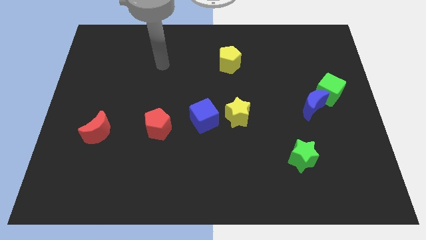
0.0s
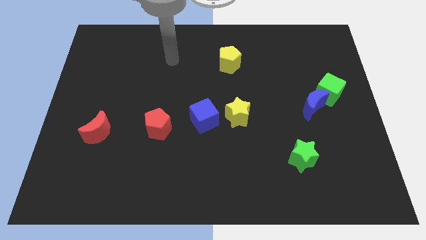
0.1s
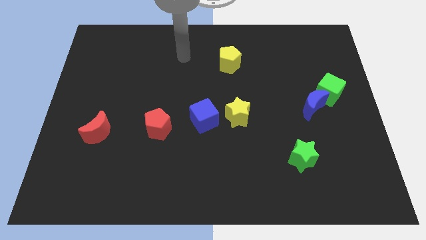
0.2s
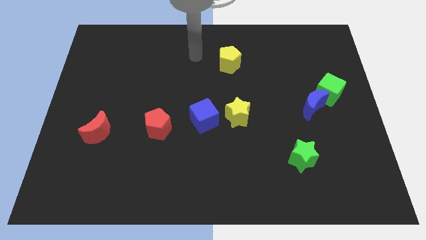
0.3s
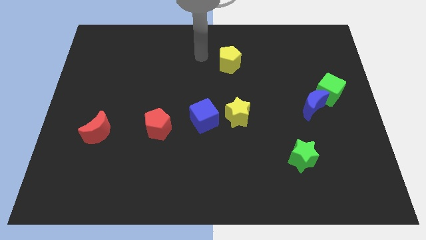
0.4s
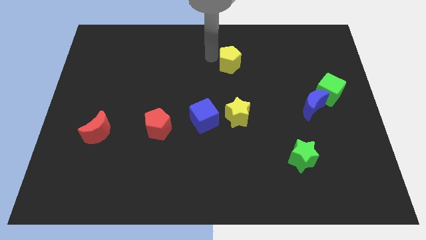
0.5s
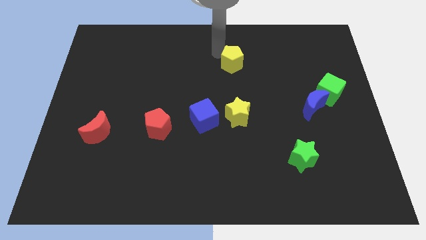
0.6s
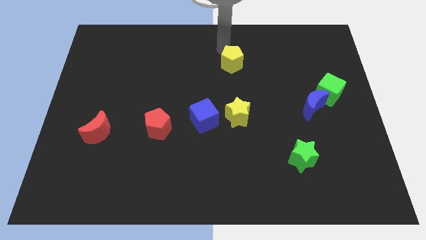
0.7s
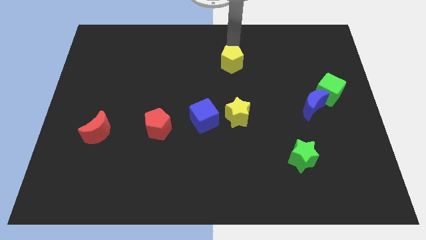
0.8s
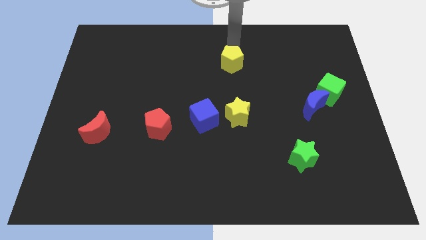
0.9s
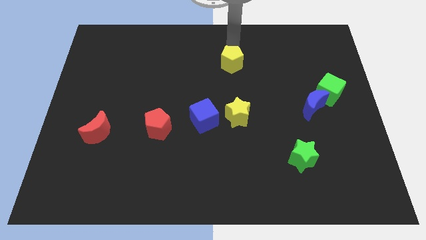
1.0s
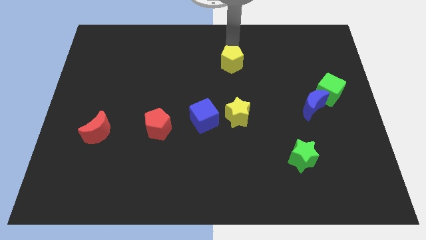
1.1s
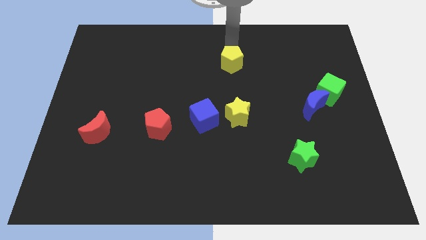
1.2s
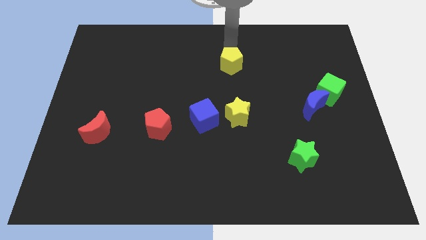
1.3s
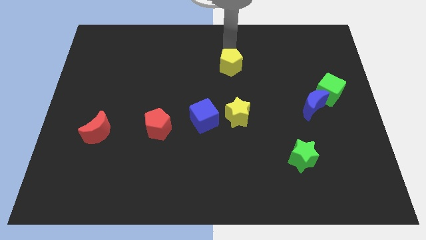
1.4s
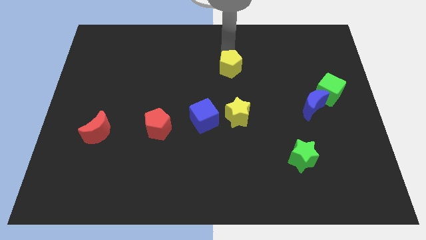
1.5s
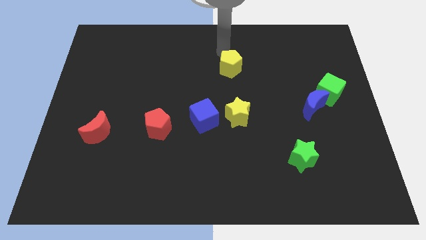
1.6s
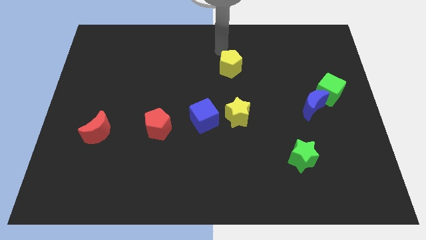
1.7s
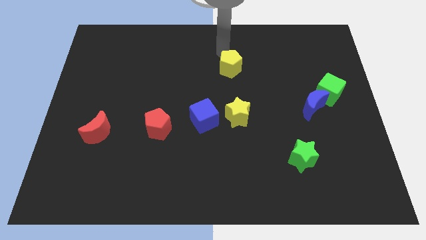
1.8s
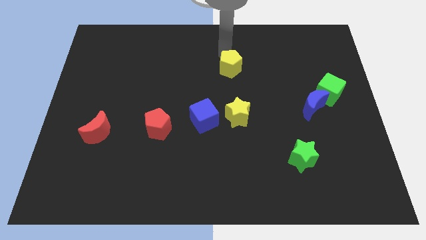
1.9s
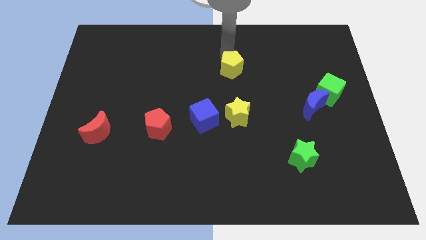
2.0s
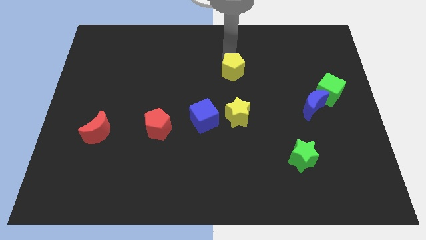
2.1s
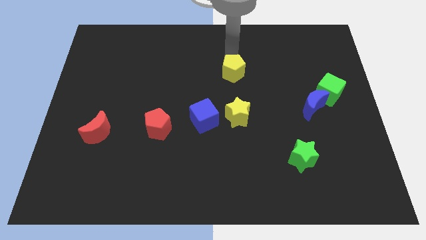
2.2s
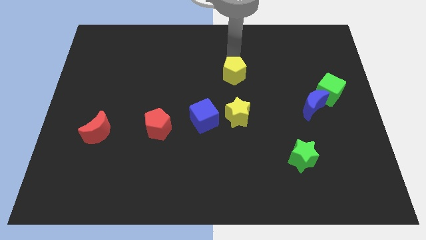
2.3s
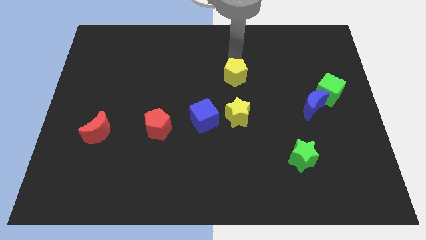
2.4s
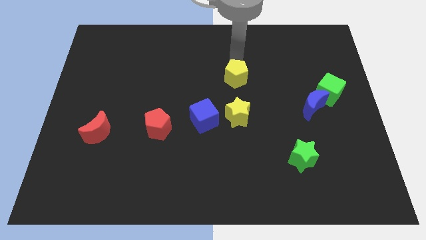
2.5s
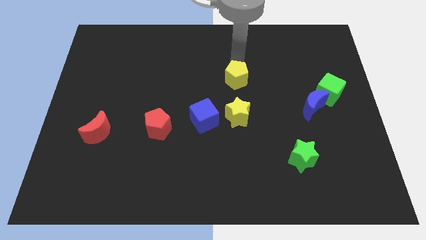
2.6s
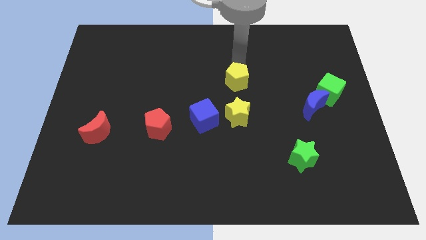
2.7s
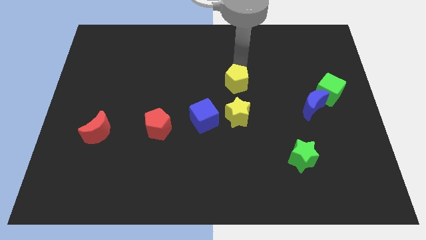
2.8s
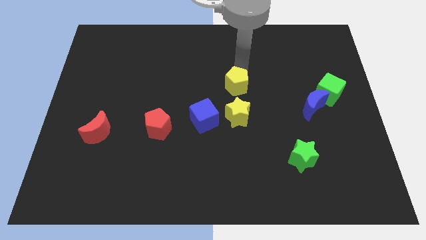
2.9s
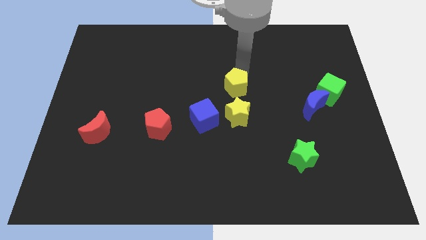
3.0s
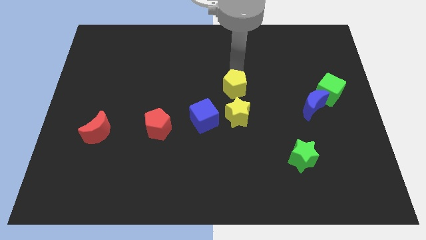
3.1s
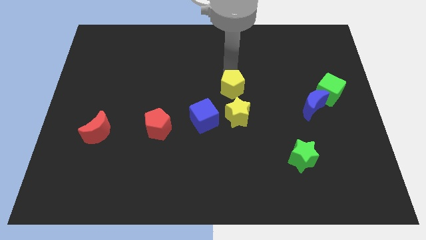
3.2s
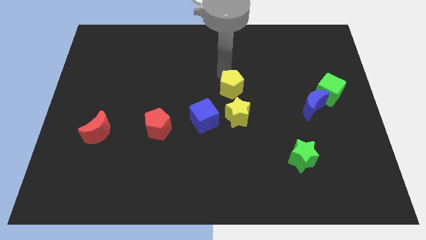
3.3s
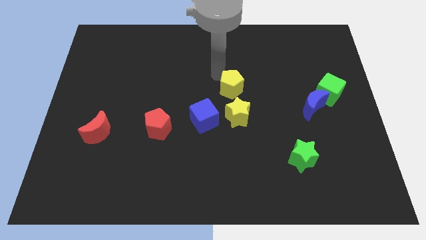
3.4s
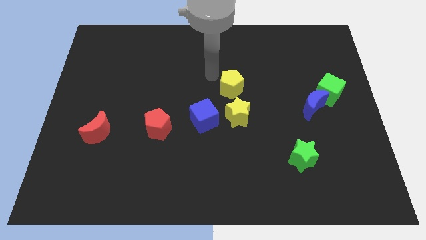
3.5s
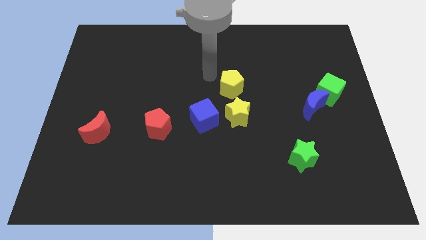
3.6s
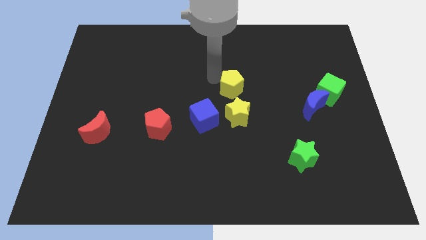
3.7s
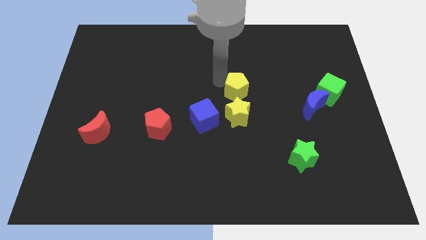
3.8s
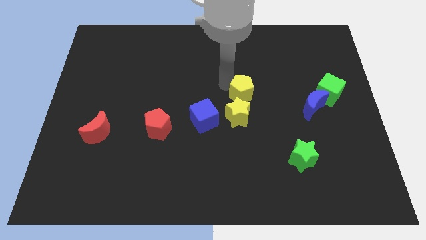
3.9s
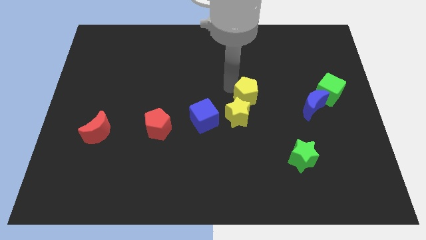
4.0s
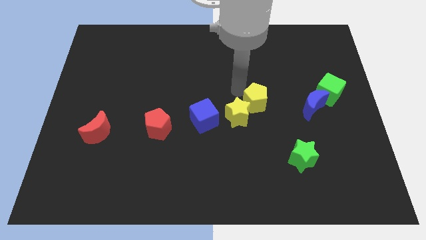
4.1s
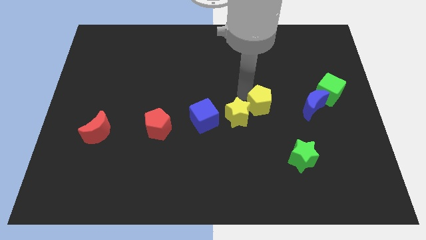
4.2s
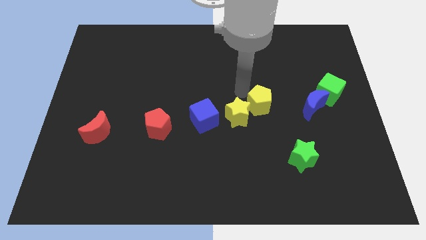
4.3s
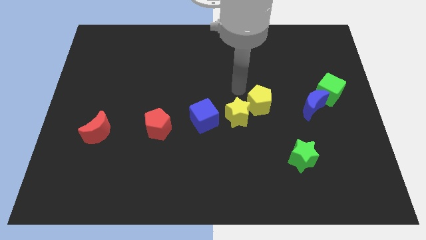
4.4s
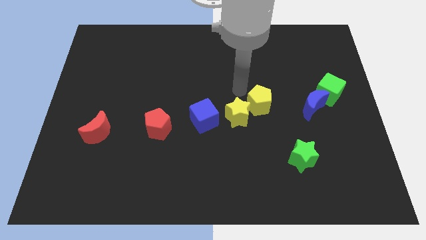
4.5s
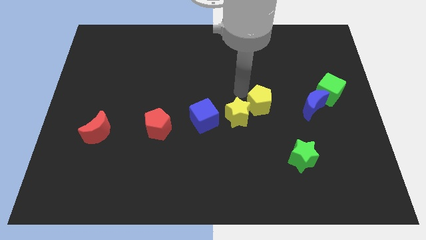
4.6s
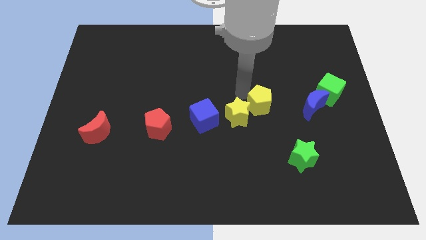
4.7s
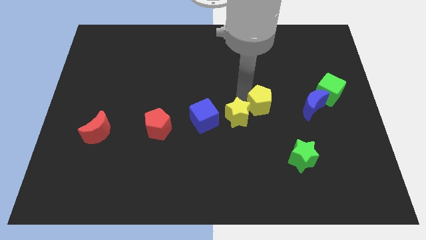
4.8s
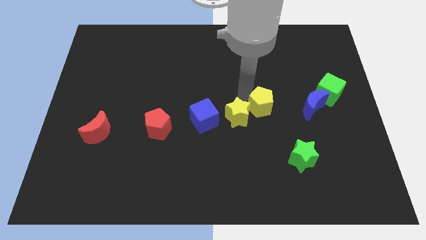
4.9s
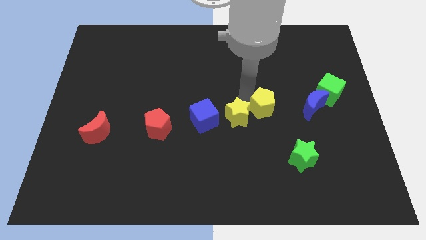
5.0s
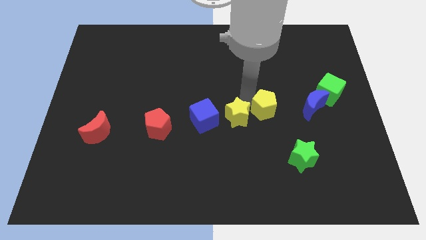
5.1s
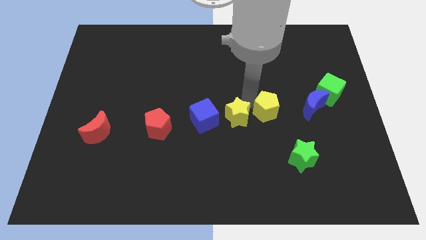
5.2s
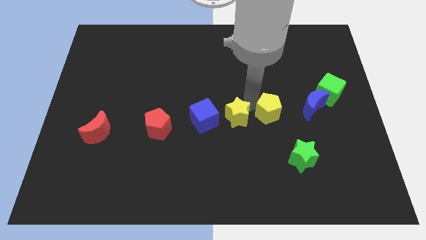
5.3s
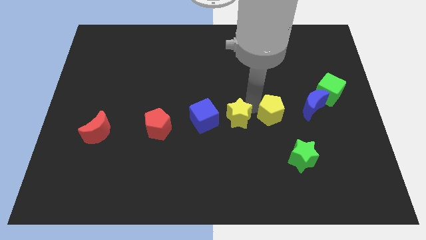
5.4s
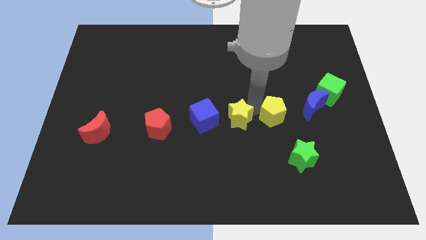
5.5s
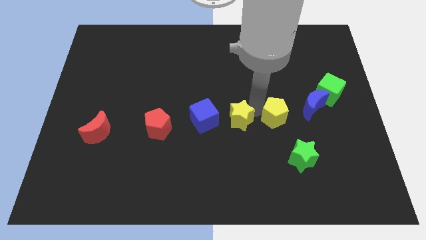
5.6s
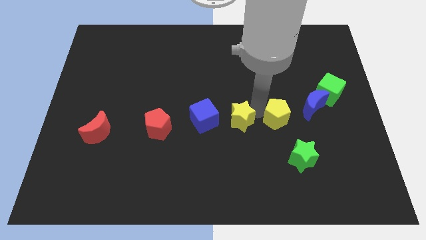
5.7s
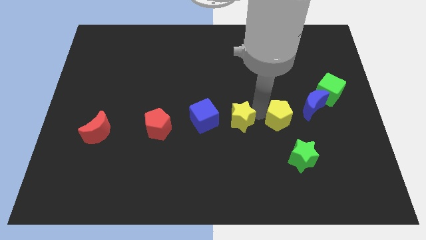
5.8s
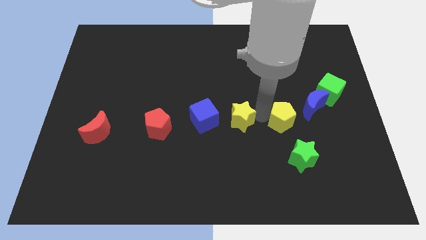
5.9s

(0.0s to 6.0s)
push the yellow pentagon diagonally down and to the right

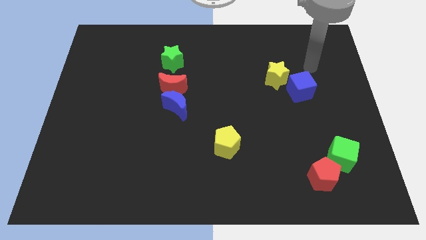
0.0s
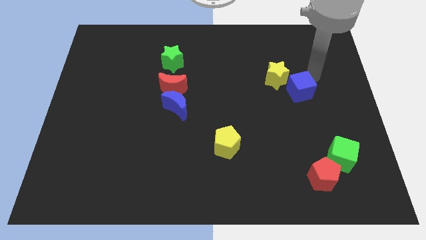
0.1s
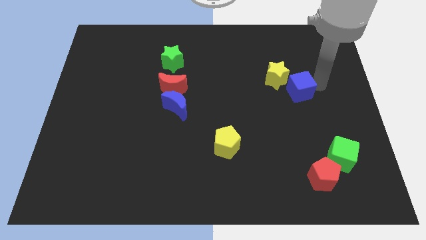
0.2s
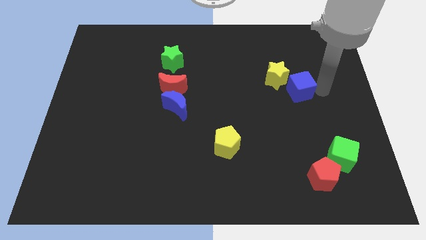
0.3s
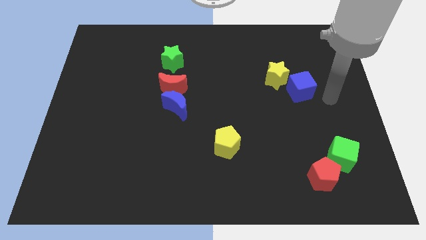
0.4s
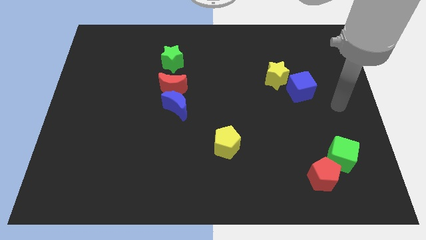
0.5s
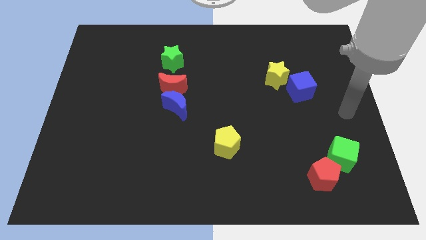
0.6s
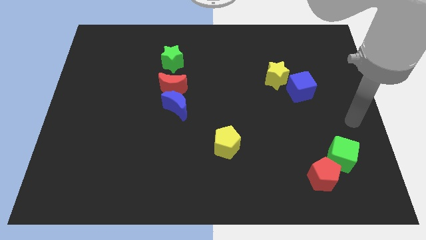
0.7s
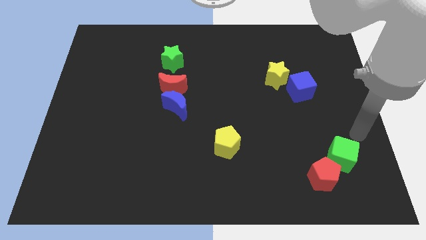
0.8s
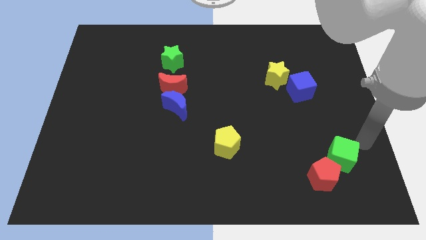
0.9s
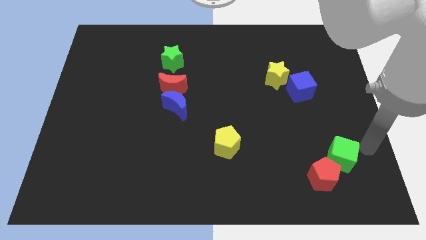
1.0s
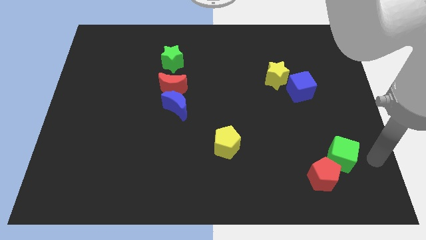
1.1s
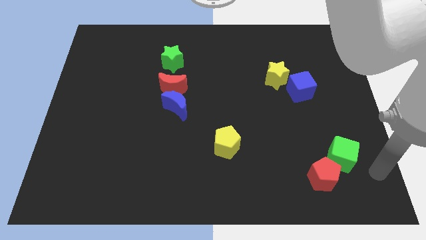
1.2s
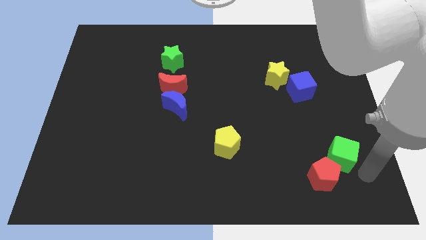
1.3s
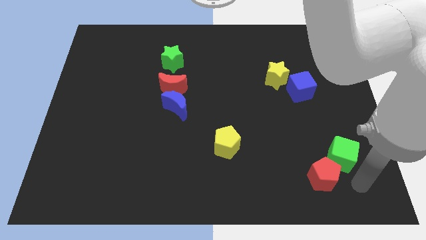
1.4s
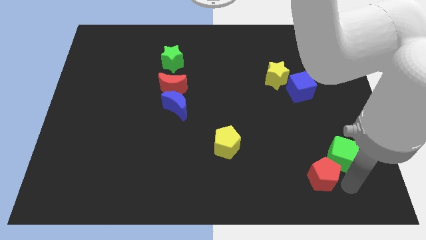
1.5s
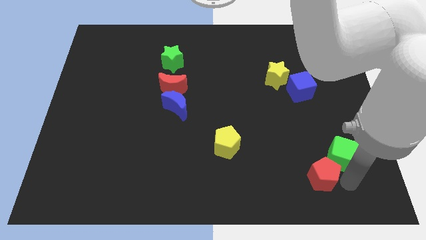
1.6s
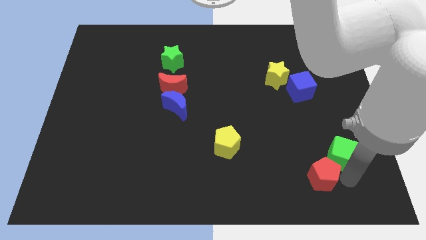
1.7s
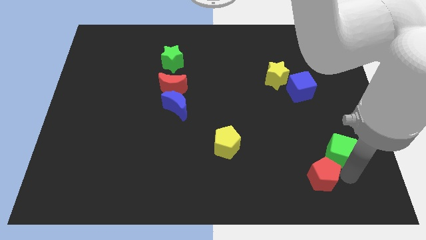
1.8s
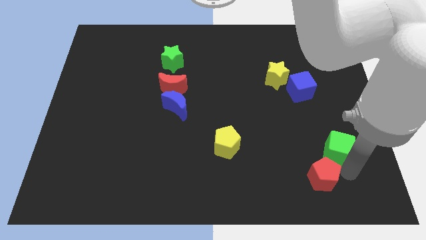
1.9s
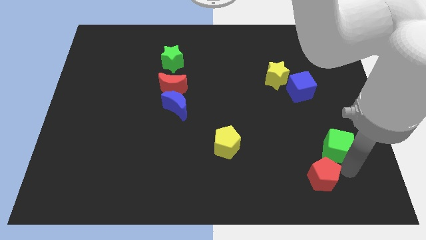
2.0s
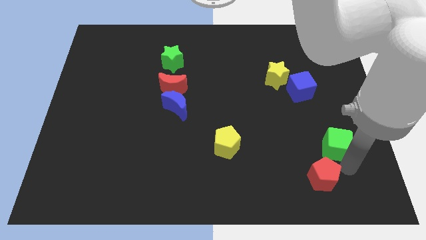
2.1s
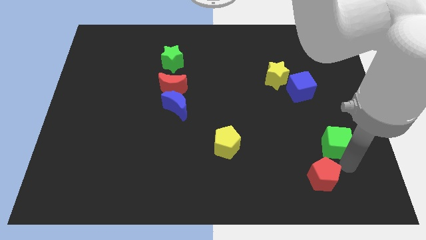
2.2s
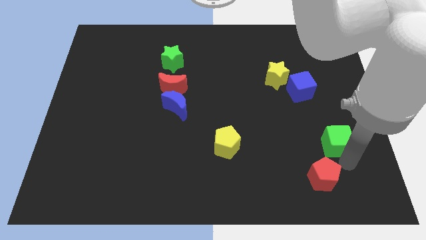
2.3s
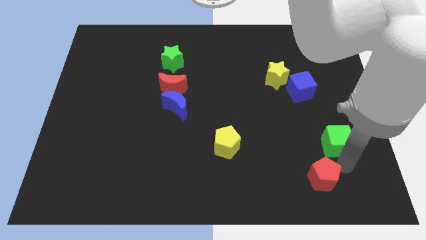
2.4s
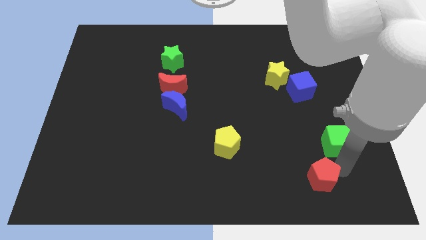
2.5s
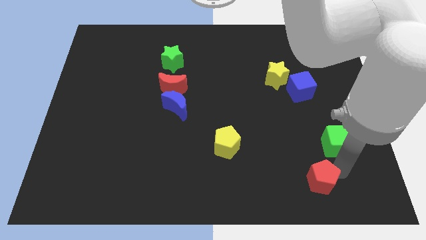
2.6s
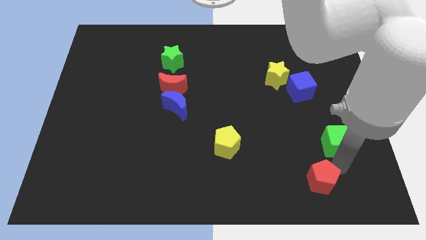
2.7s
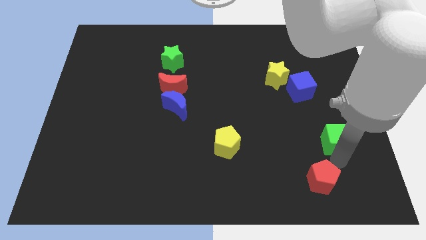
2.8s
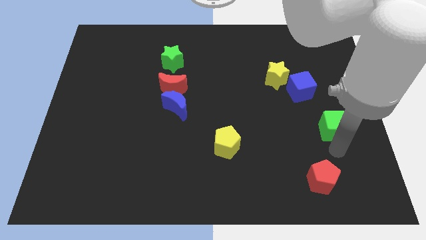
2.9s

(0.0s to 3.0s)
slightly push the green cube up
